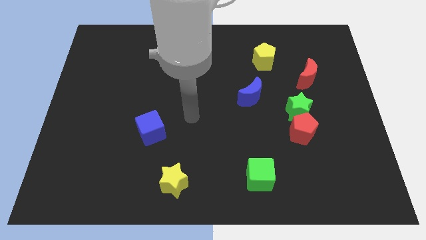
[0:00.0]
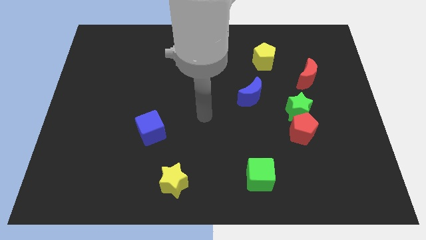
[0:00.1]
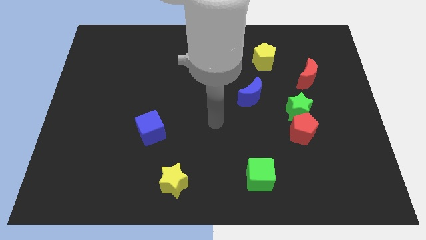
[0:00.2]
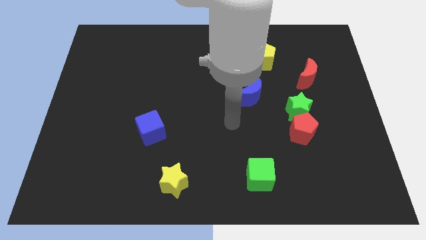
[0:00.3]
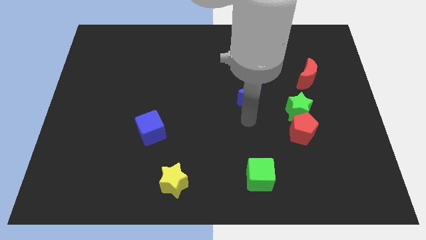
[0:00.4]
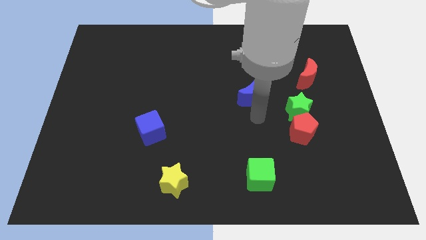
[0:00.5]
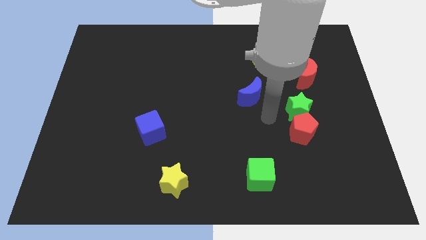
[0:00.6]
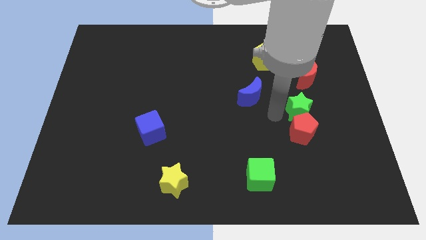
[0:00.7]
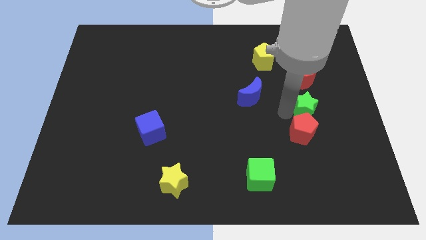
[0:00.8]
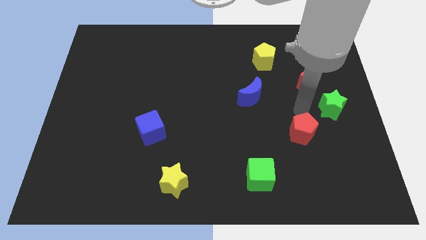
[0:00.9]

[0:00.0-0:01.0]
move the red pentagon away from the green star

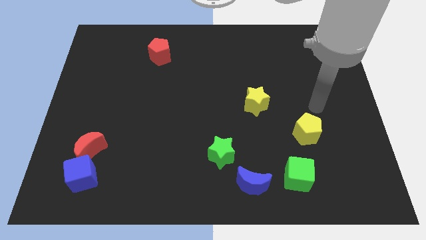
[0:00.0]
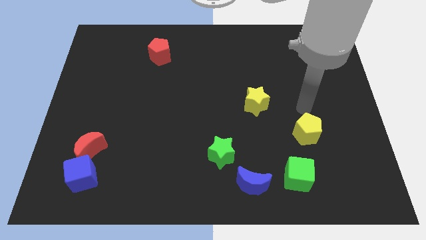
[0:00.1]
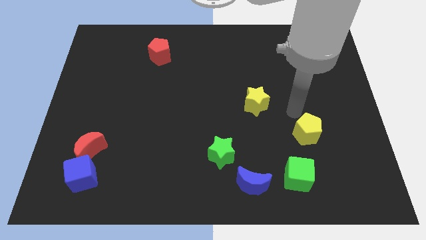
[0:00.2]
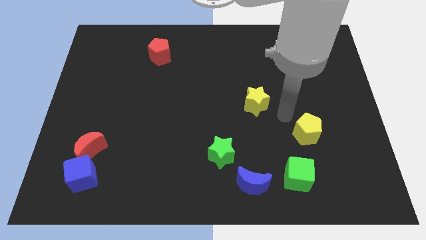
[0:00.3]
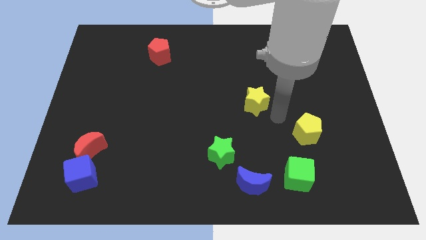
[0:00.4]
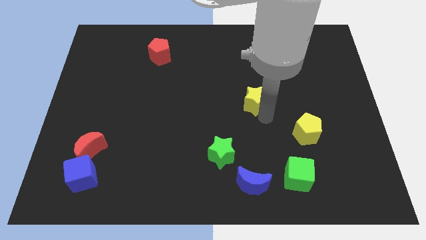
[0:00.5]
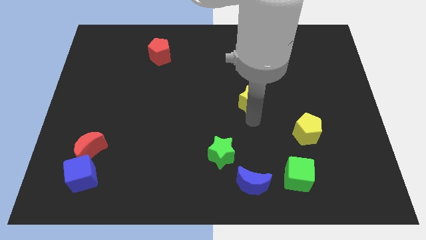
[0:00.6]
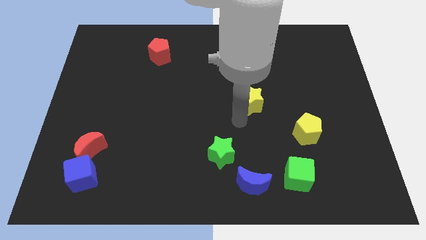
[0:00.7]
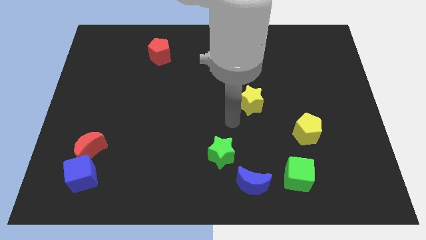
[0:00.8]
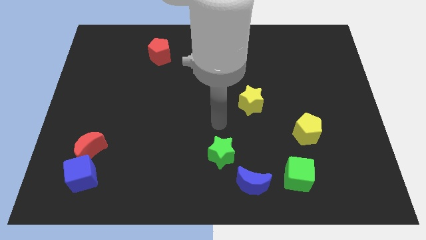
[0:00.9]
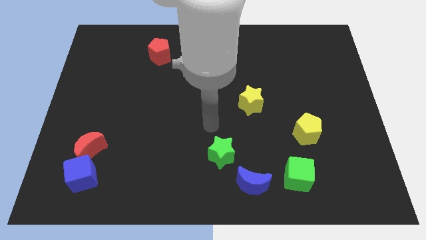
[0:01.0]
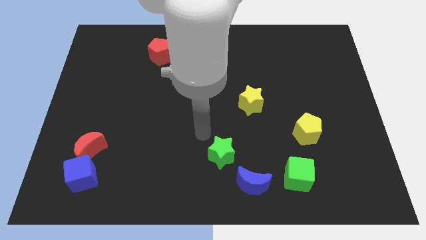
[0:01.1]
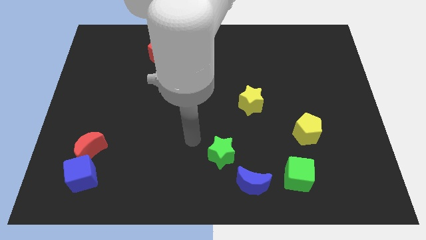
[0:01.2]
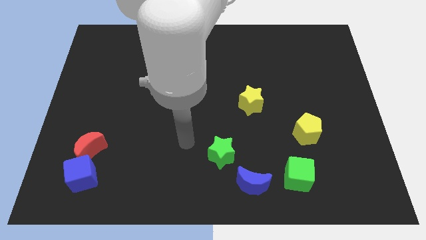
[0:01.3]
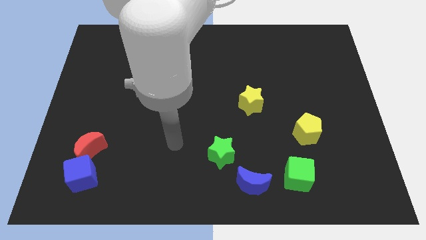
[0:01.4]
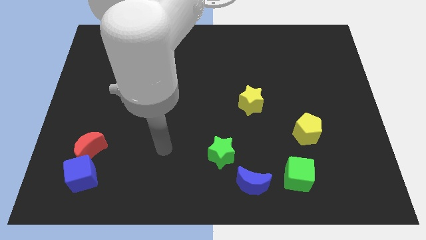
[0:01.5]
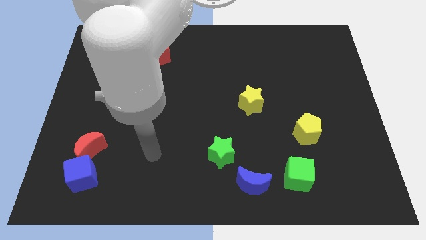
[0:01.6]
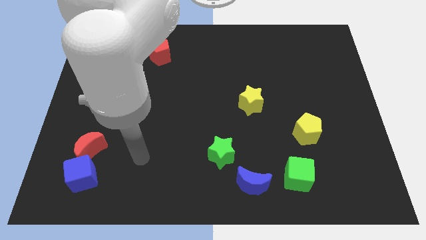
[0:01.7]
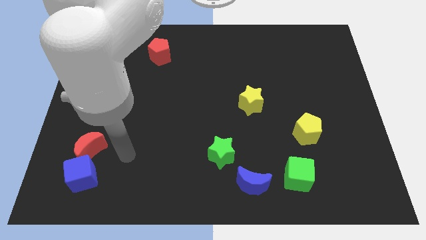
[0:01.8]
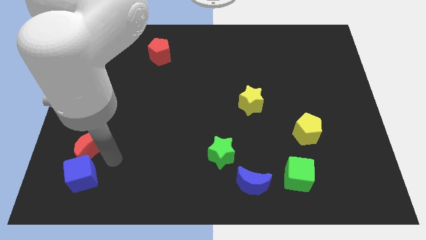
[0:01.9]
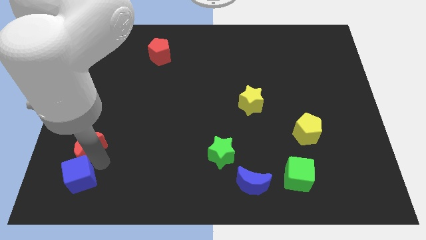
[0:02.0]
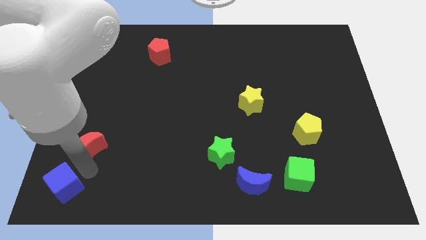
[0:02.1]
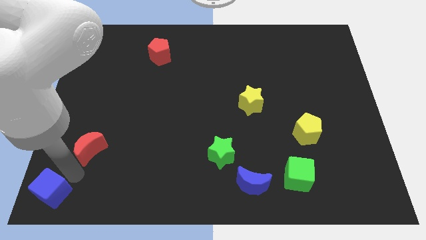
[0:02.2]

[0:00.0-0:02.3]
pull the red moon apart from the blue cube

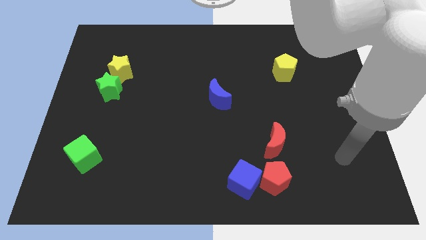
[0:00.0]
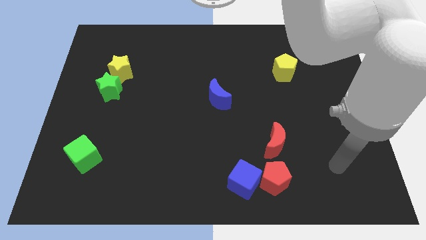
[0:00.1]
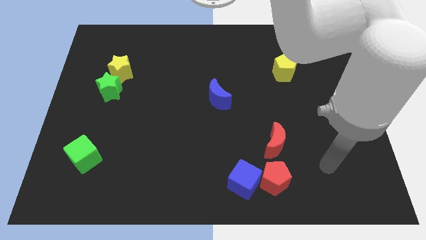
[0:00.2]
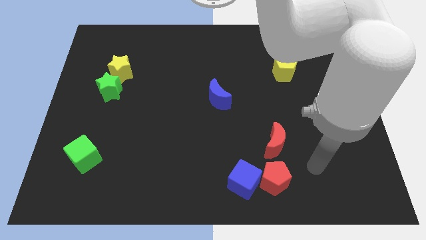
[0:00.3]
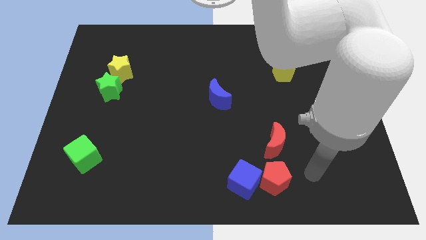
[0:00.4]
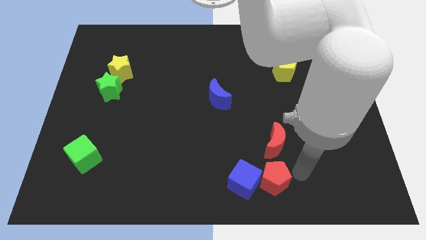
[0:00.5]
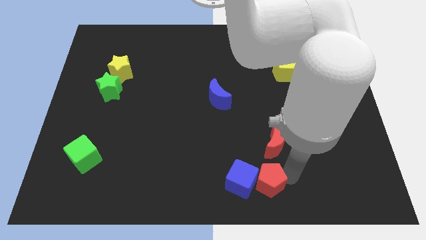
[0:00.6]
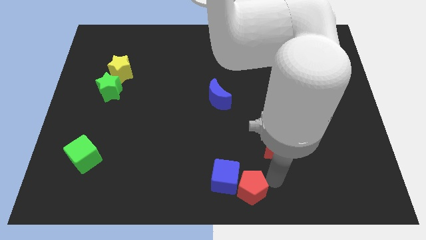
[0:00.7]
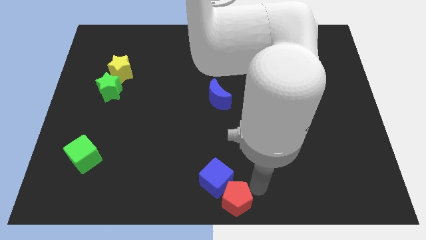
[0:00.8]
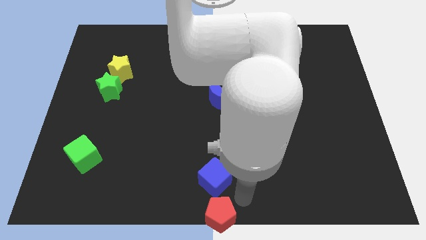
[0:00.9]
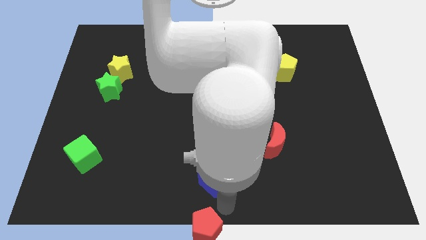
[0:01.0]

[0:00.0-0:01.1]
separate the blue cube from the red pentagon

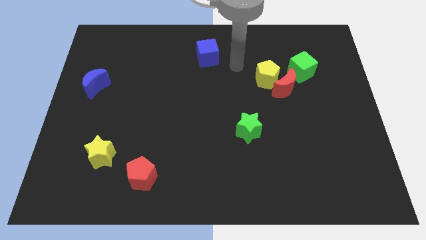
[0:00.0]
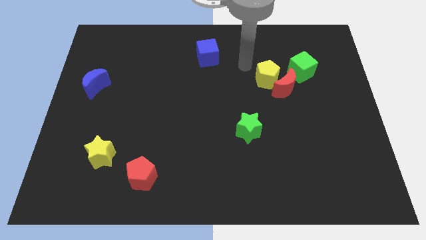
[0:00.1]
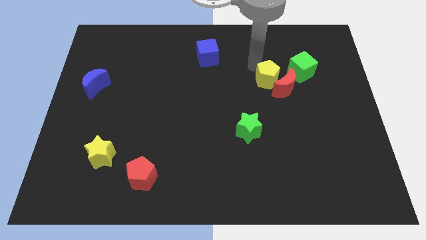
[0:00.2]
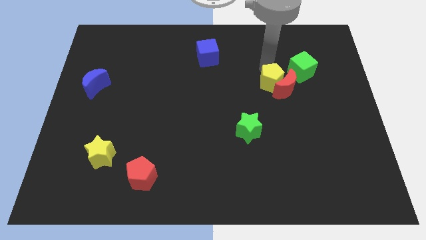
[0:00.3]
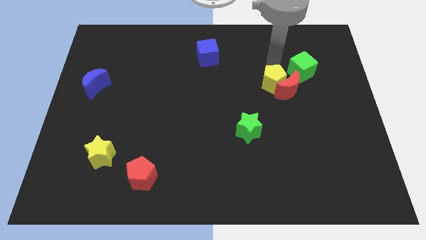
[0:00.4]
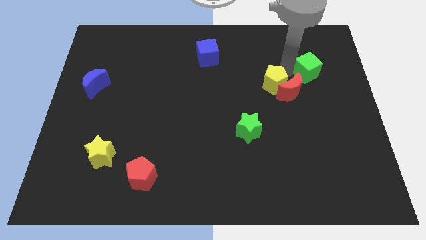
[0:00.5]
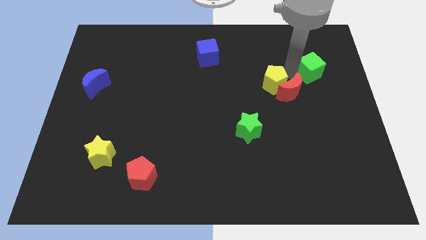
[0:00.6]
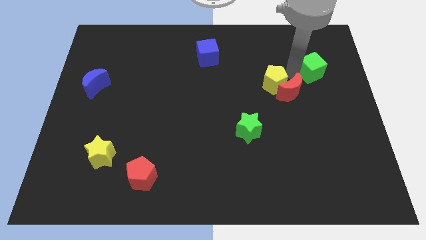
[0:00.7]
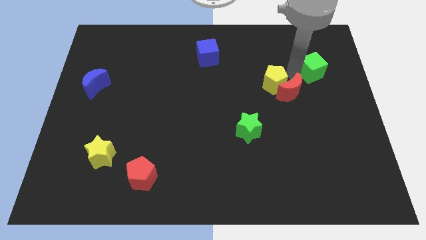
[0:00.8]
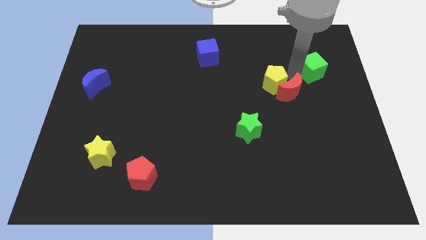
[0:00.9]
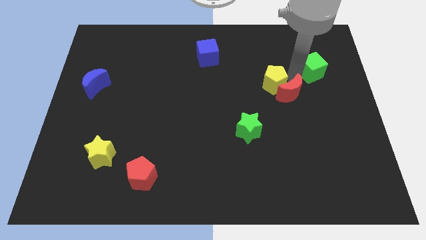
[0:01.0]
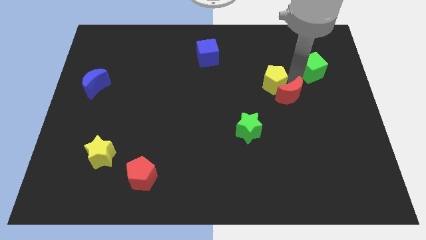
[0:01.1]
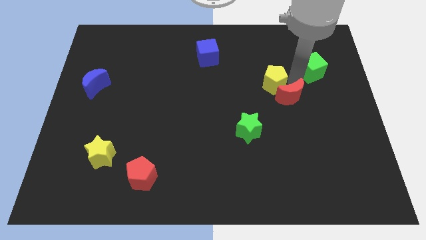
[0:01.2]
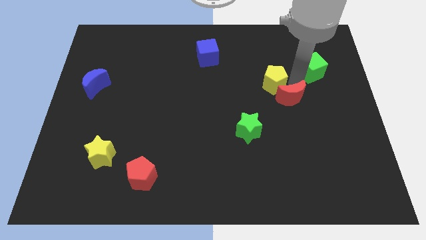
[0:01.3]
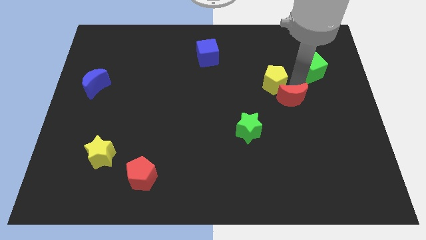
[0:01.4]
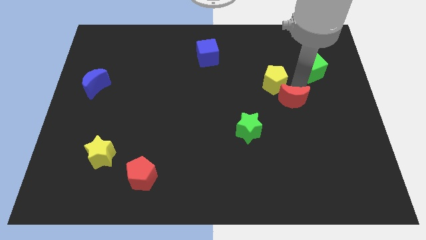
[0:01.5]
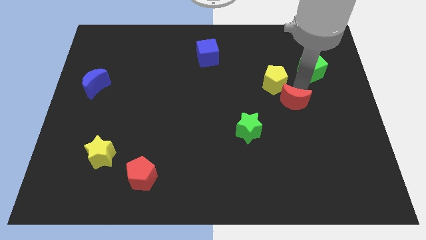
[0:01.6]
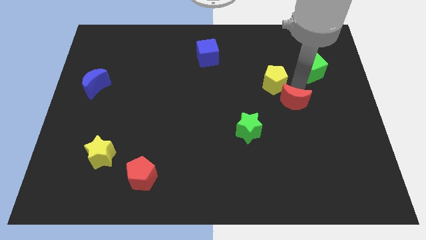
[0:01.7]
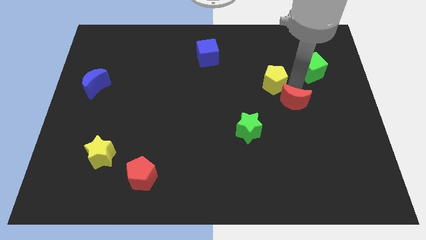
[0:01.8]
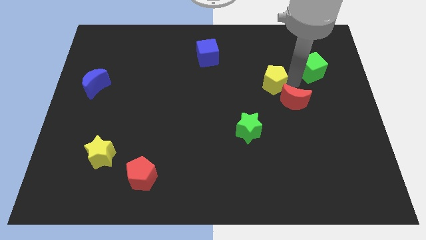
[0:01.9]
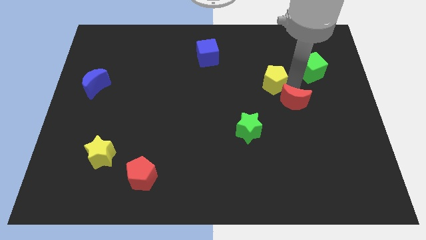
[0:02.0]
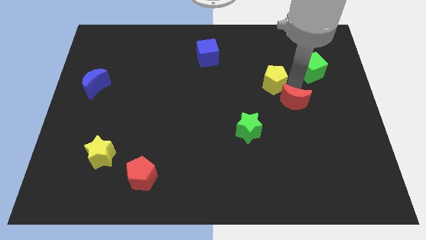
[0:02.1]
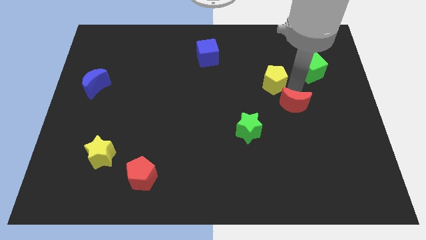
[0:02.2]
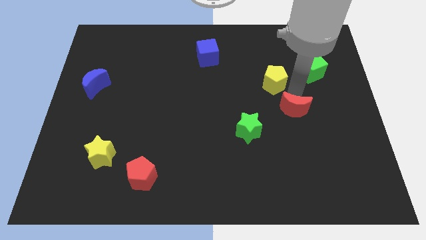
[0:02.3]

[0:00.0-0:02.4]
pull the red moon apart from the yellow pentagon and green cube

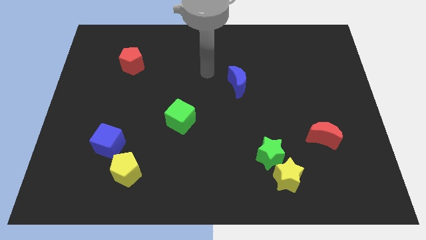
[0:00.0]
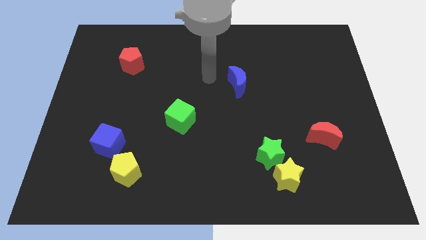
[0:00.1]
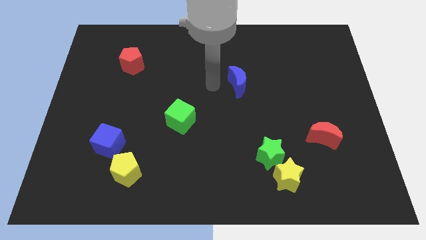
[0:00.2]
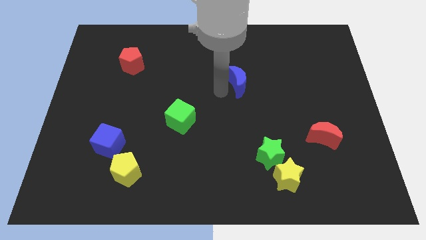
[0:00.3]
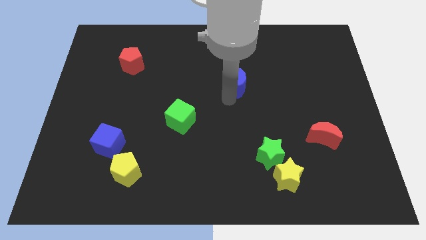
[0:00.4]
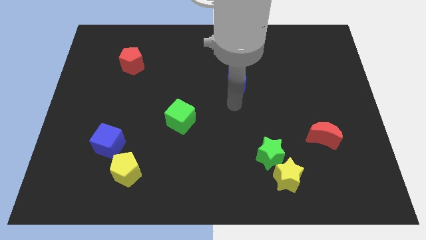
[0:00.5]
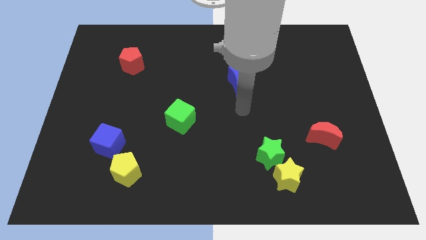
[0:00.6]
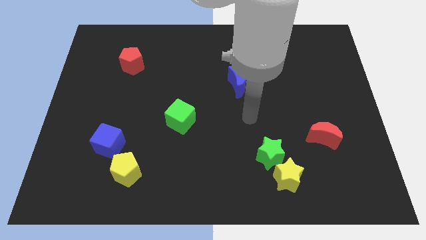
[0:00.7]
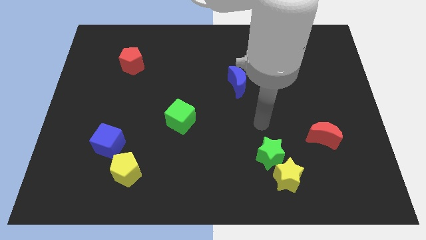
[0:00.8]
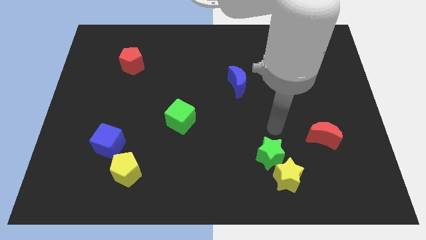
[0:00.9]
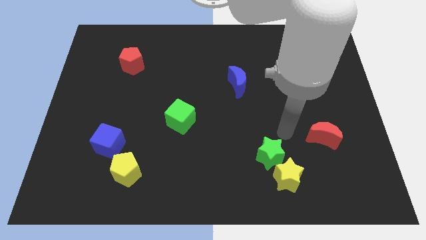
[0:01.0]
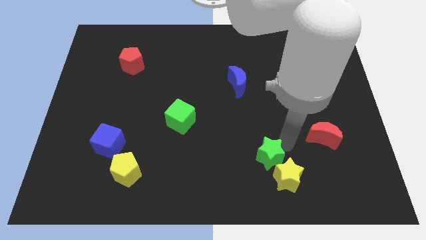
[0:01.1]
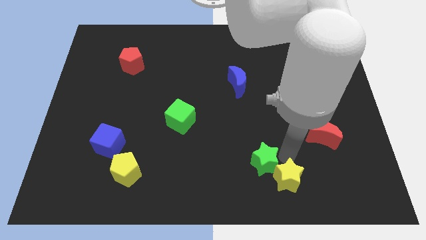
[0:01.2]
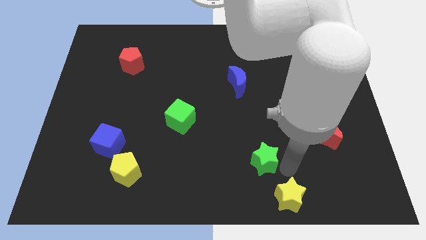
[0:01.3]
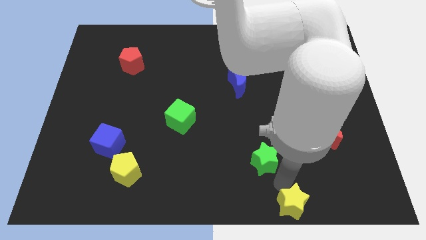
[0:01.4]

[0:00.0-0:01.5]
move the green star away from the yellow star

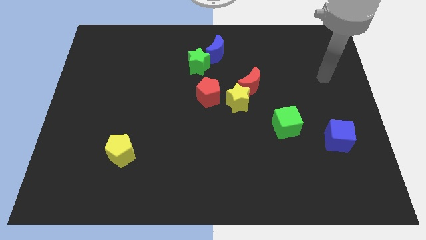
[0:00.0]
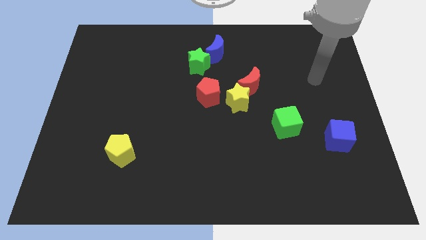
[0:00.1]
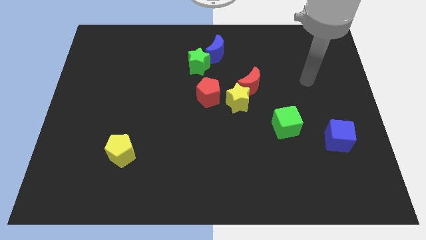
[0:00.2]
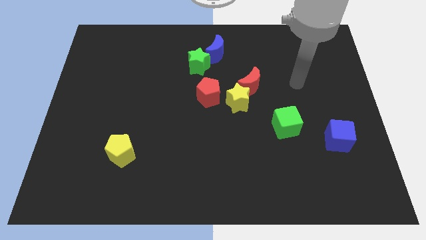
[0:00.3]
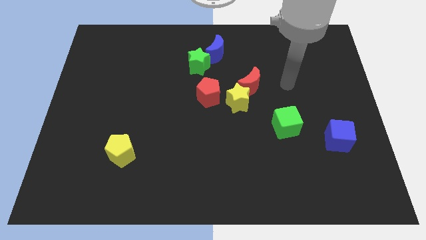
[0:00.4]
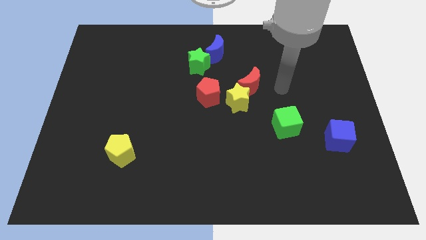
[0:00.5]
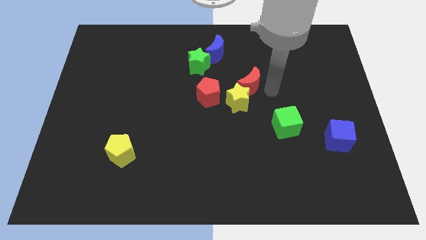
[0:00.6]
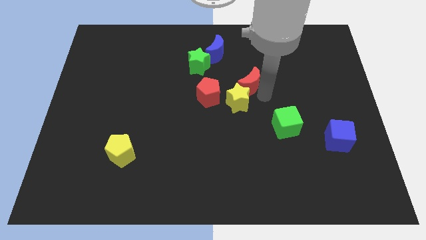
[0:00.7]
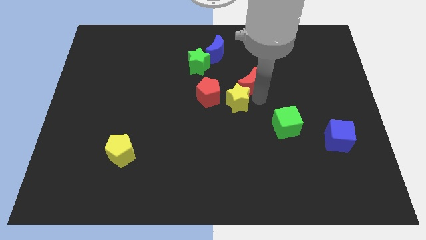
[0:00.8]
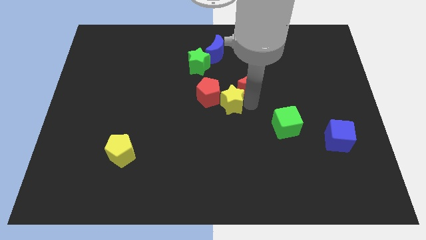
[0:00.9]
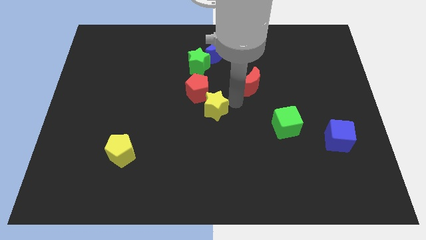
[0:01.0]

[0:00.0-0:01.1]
pull the red moon apart from the yellow star
